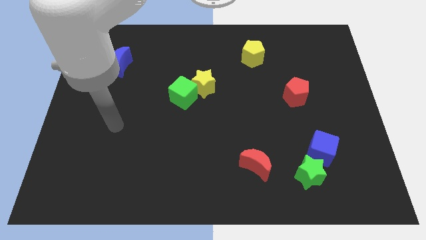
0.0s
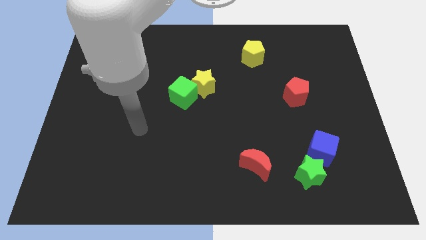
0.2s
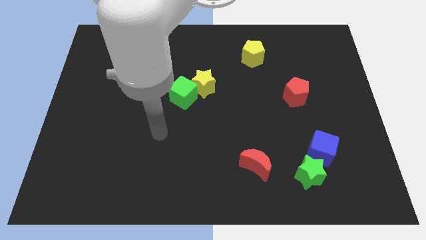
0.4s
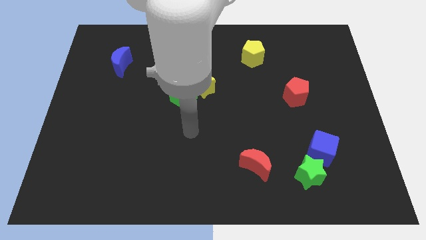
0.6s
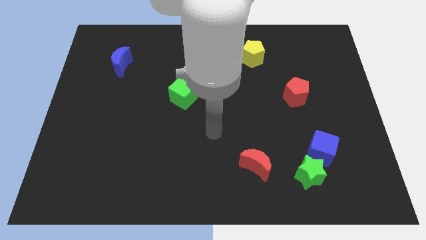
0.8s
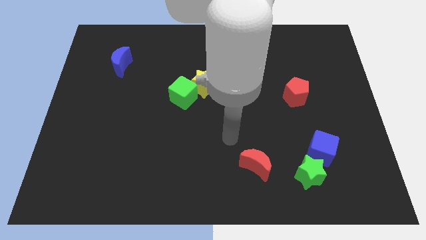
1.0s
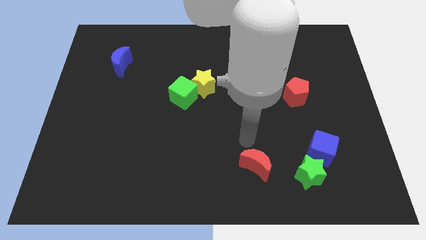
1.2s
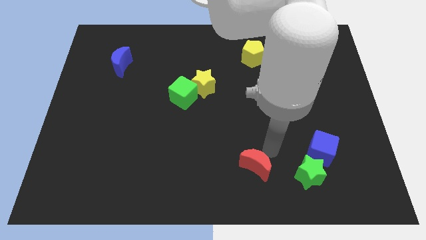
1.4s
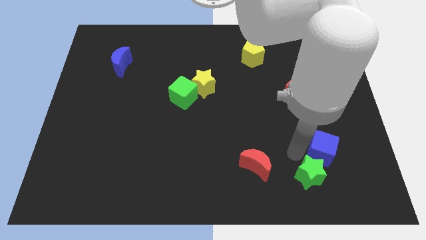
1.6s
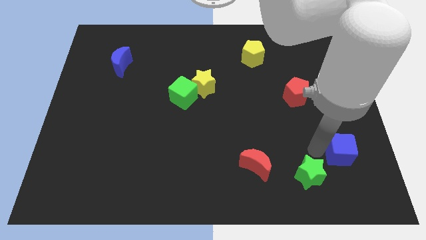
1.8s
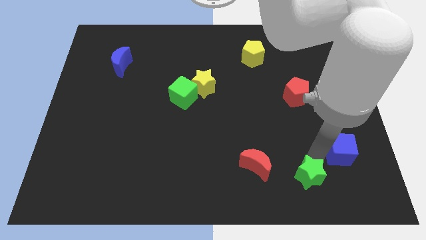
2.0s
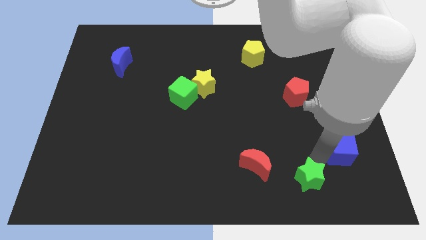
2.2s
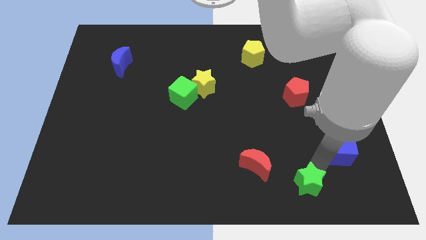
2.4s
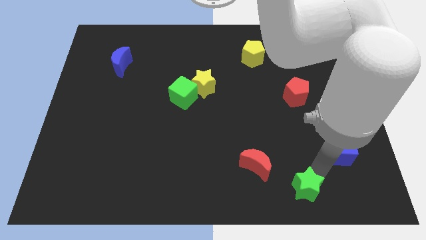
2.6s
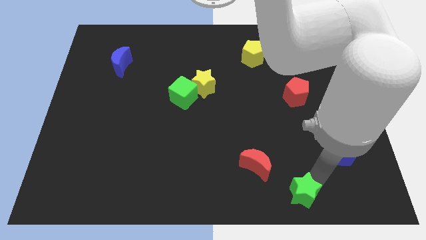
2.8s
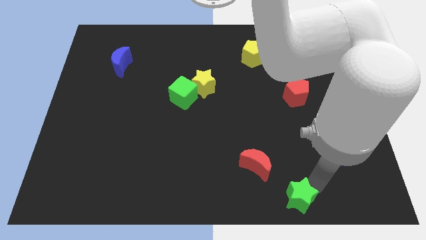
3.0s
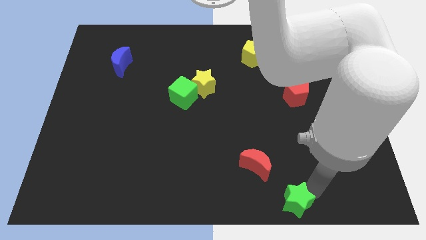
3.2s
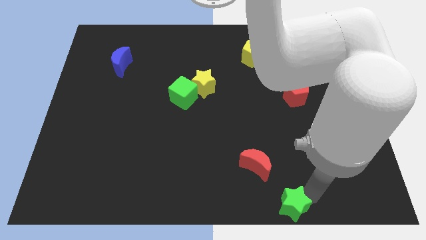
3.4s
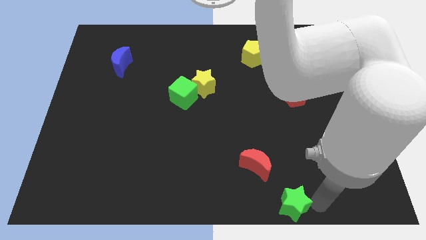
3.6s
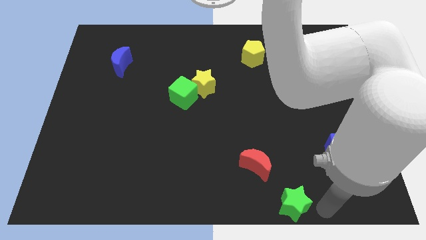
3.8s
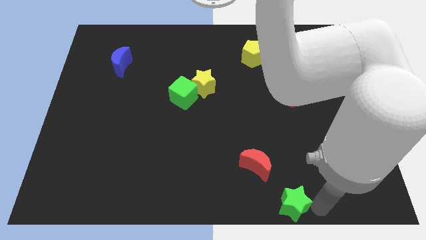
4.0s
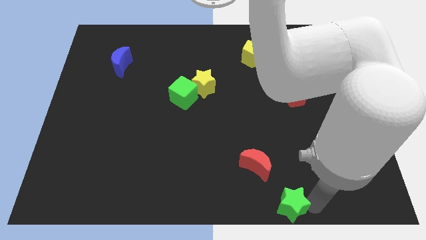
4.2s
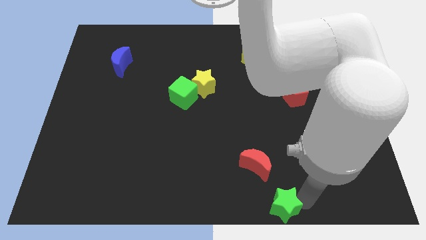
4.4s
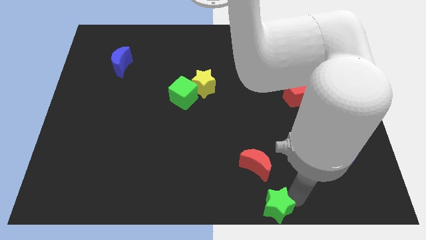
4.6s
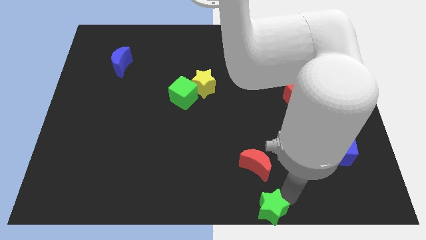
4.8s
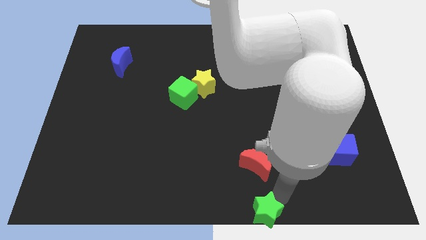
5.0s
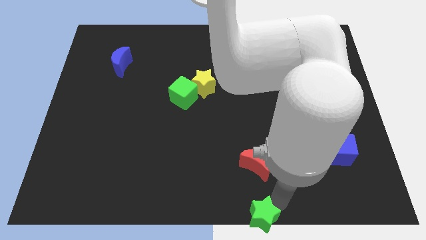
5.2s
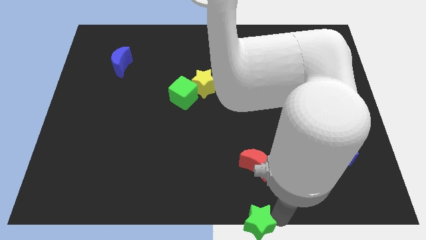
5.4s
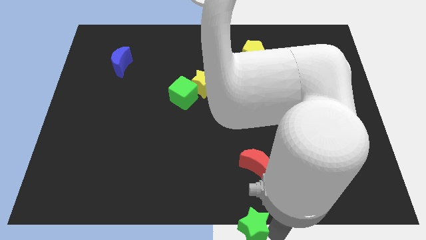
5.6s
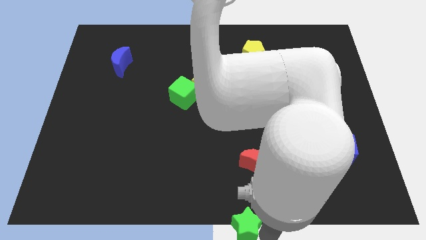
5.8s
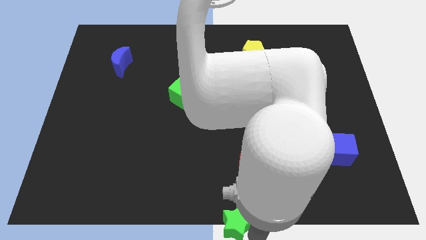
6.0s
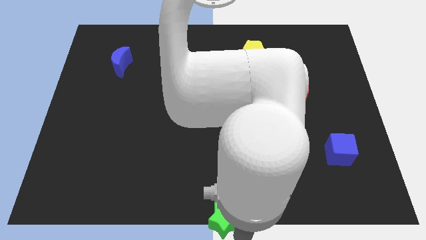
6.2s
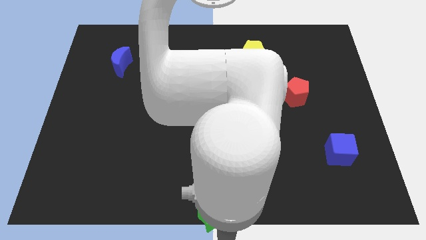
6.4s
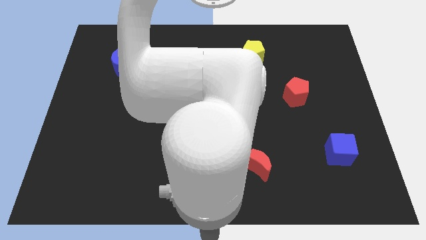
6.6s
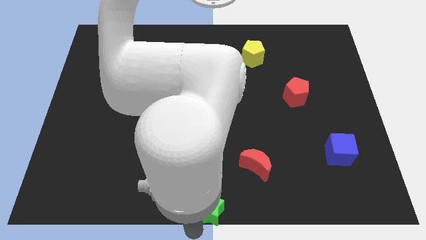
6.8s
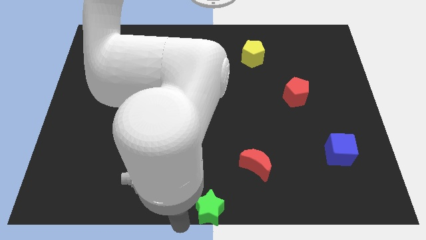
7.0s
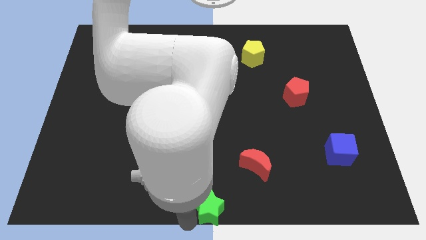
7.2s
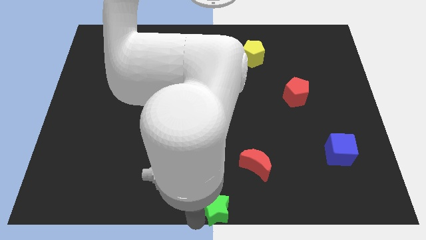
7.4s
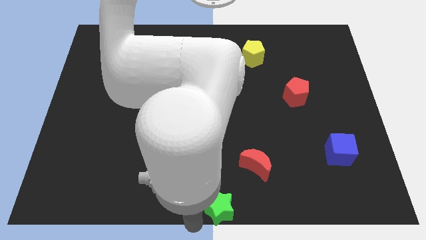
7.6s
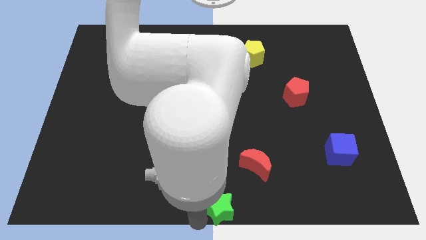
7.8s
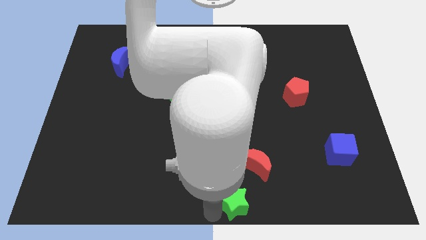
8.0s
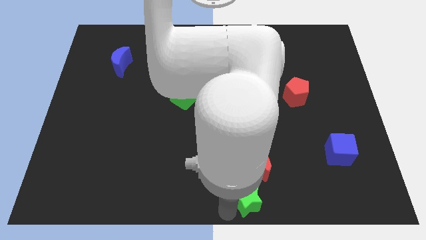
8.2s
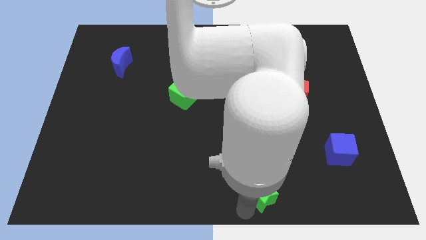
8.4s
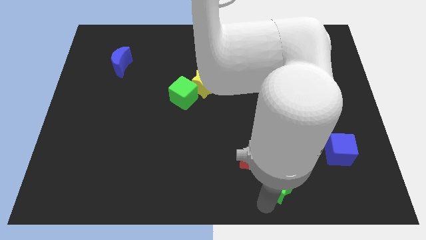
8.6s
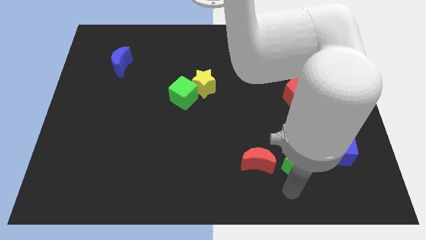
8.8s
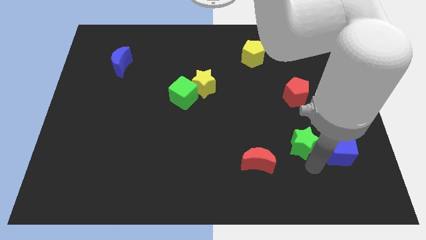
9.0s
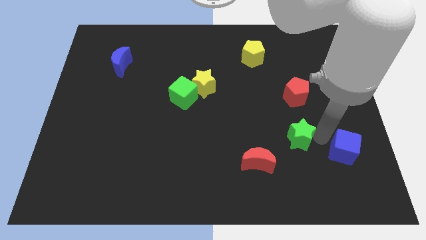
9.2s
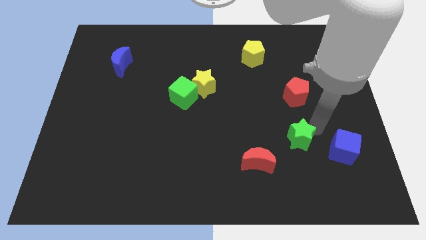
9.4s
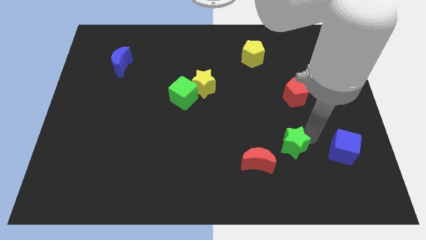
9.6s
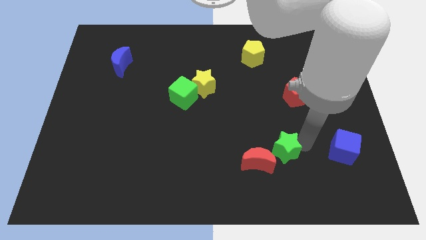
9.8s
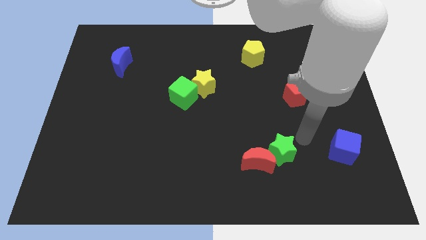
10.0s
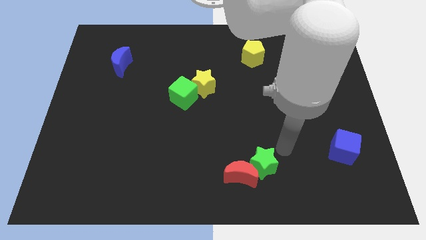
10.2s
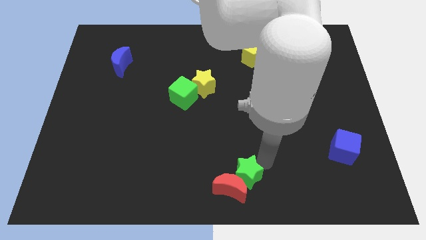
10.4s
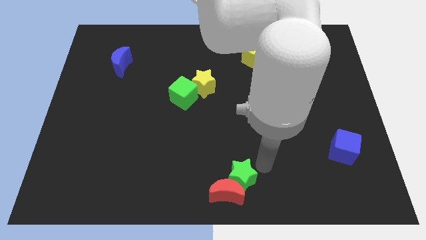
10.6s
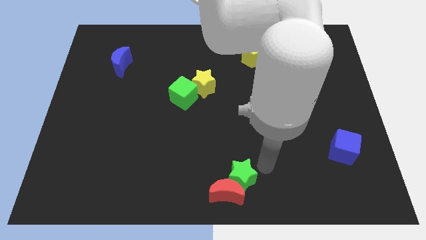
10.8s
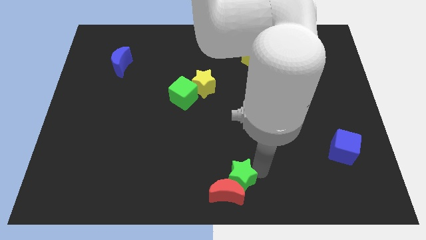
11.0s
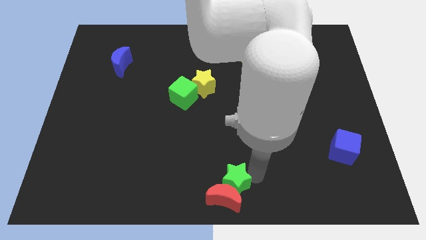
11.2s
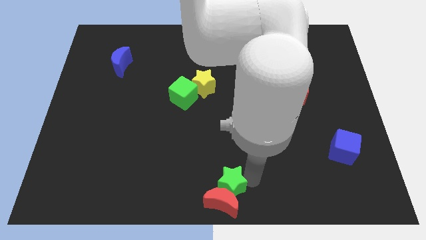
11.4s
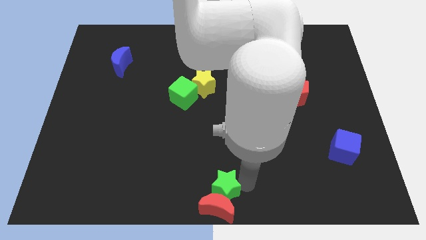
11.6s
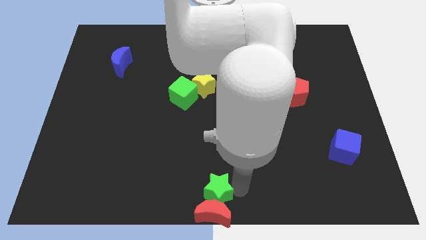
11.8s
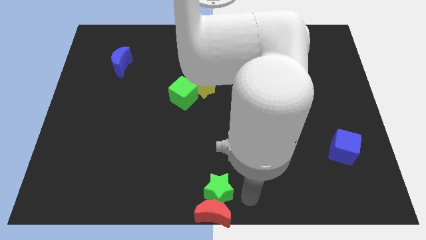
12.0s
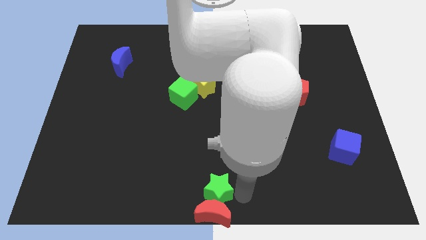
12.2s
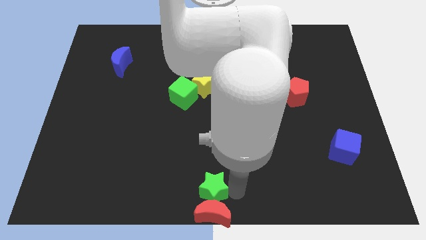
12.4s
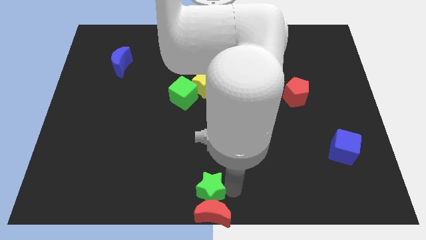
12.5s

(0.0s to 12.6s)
slide the green star to the left

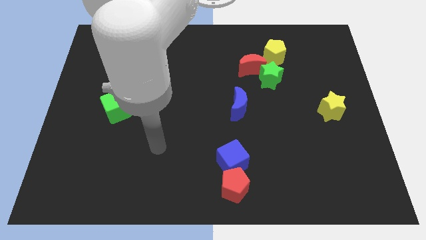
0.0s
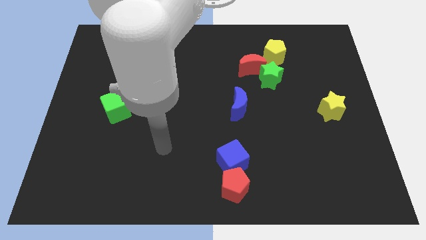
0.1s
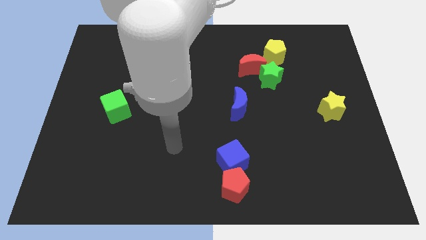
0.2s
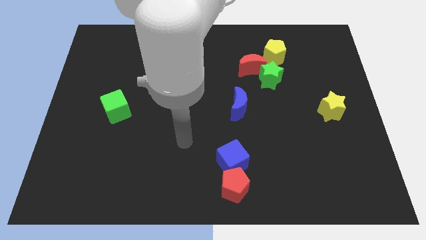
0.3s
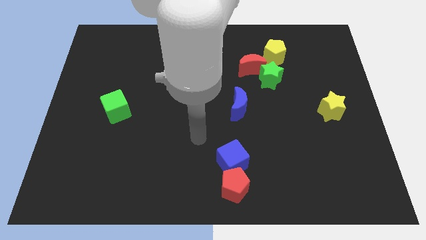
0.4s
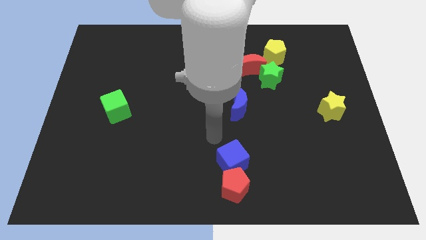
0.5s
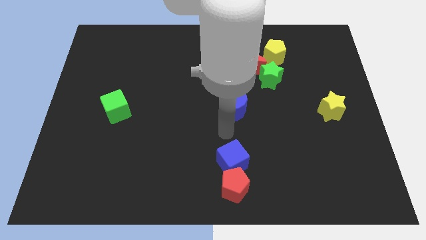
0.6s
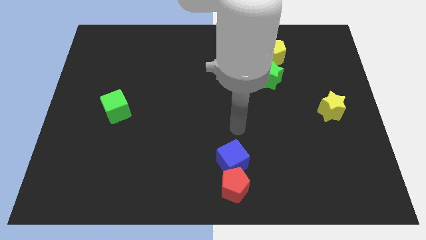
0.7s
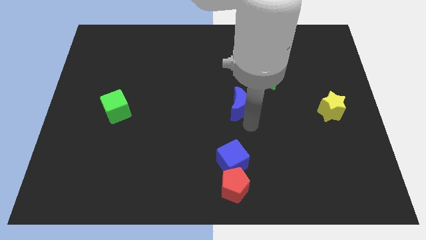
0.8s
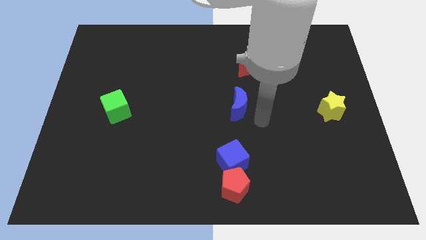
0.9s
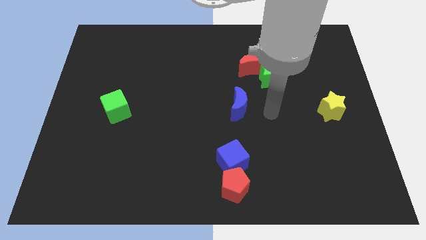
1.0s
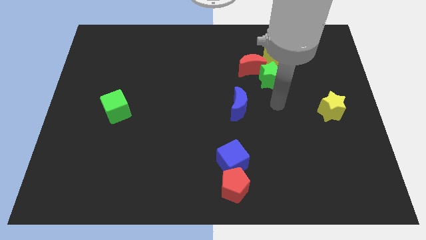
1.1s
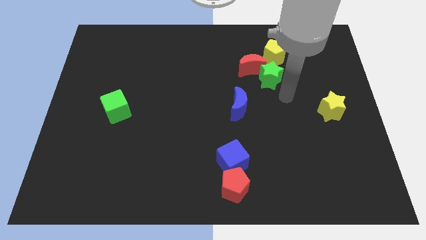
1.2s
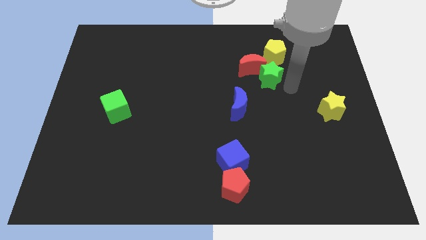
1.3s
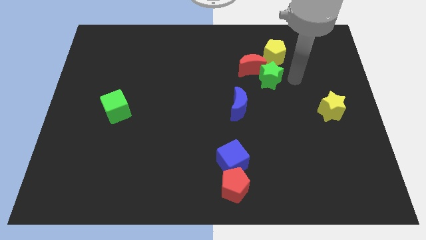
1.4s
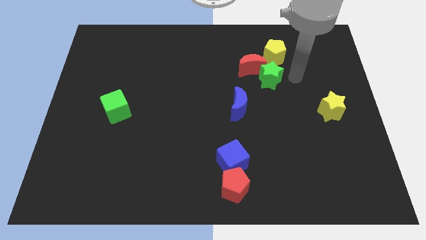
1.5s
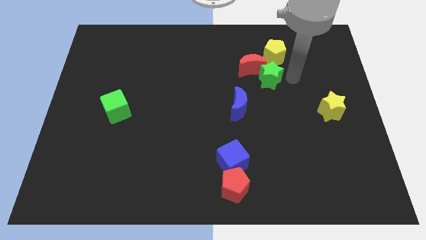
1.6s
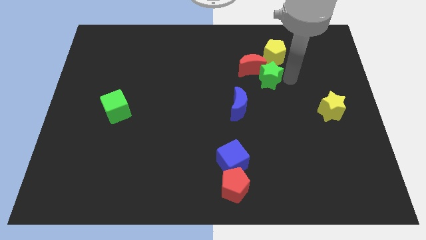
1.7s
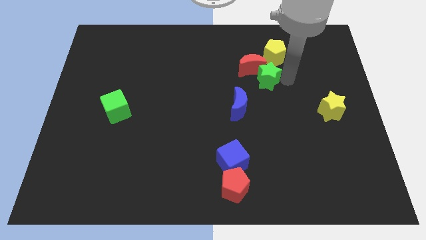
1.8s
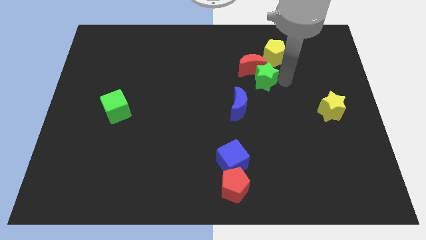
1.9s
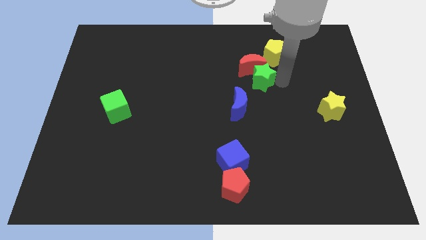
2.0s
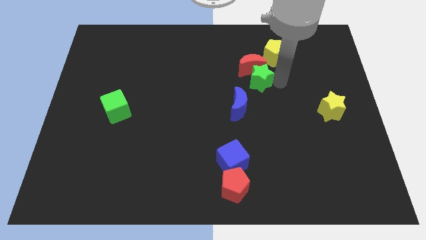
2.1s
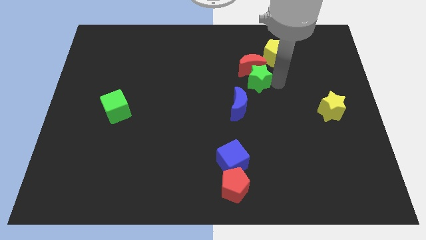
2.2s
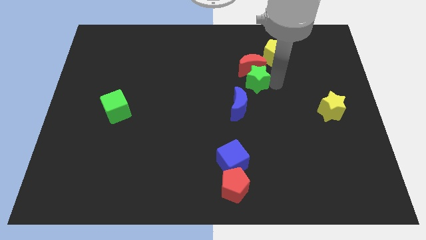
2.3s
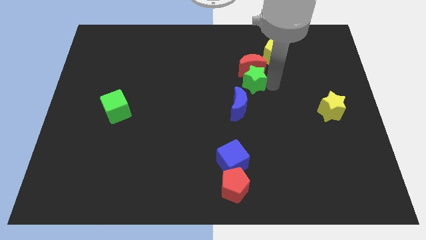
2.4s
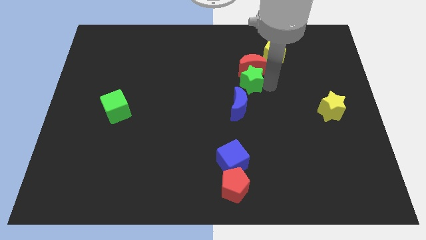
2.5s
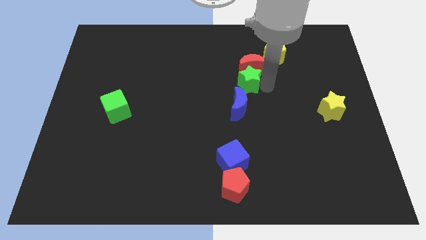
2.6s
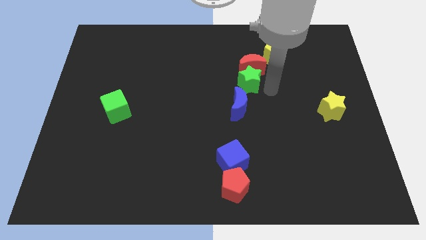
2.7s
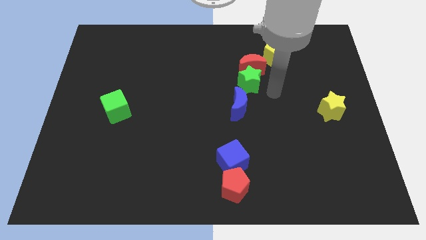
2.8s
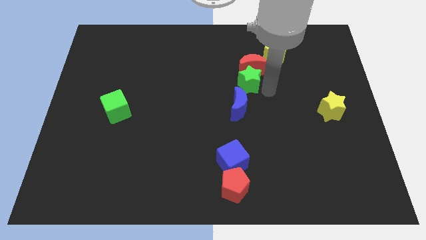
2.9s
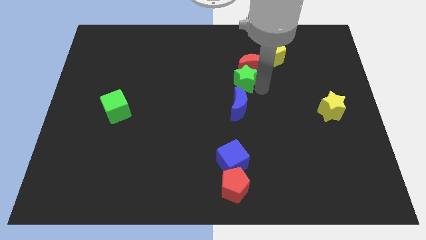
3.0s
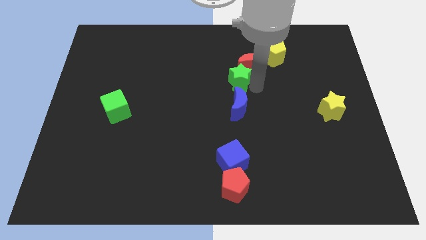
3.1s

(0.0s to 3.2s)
slide the green star a bit to the left
